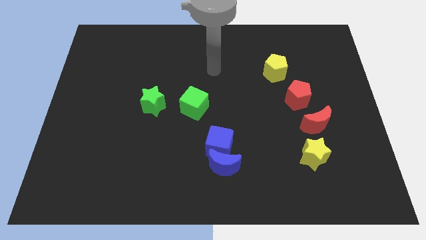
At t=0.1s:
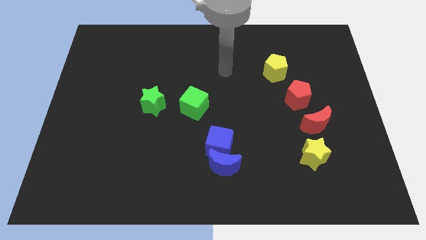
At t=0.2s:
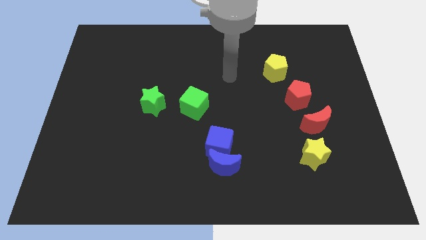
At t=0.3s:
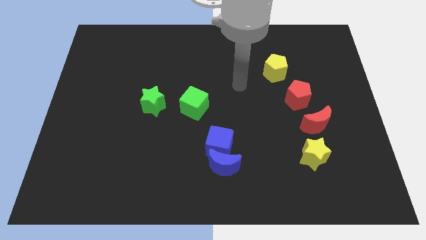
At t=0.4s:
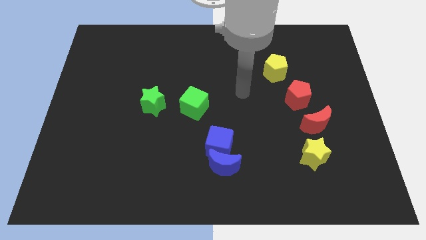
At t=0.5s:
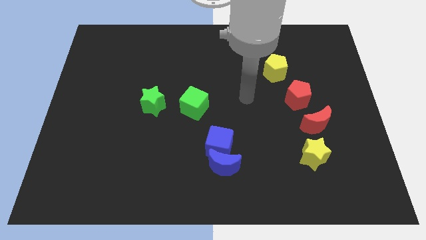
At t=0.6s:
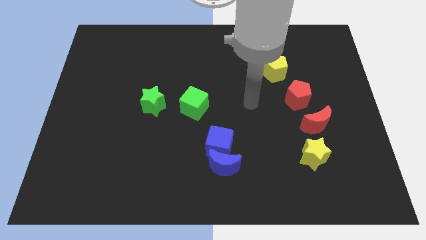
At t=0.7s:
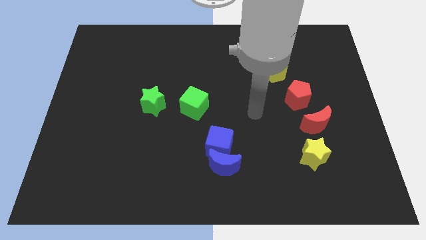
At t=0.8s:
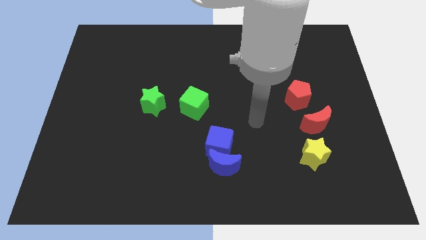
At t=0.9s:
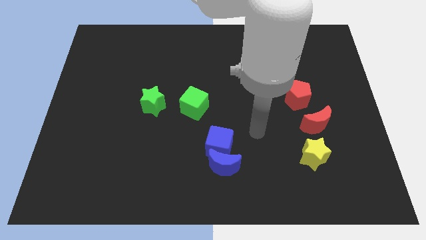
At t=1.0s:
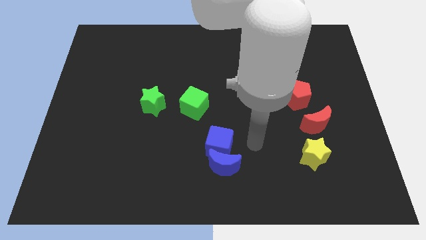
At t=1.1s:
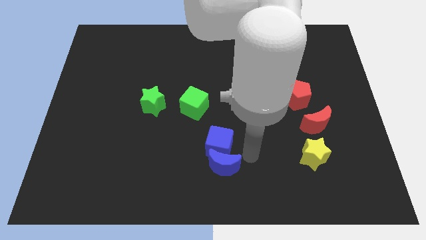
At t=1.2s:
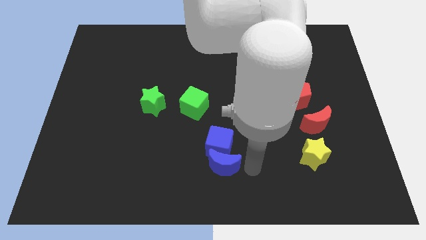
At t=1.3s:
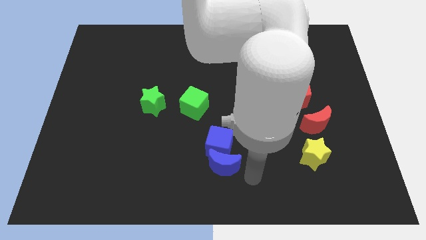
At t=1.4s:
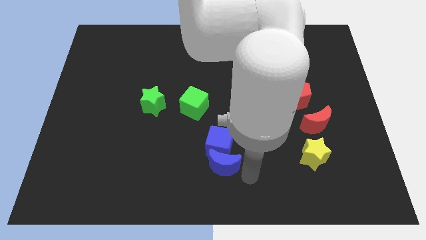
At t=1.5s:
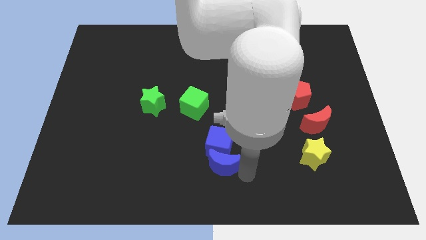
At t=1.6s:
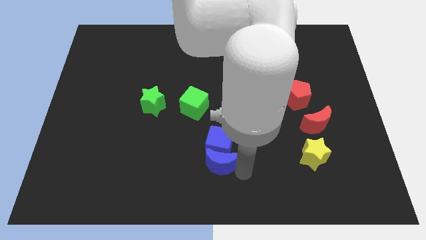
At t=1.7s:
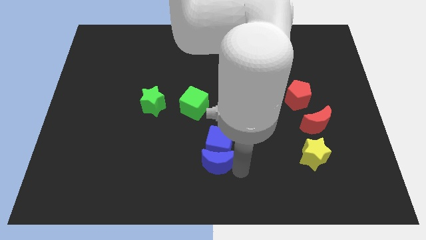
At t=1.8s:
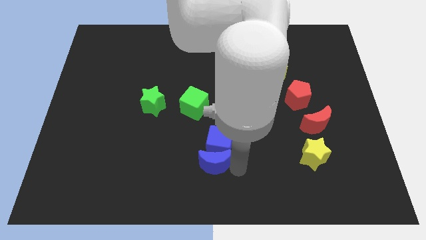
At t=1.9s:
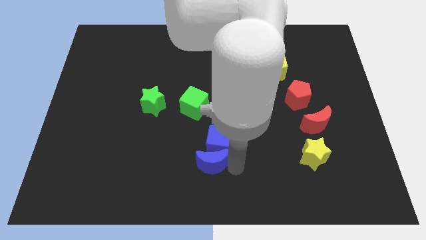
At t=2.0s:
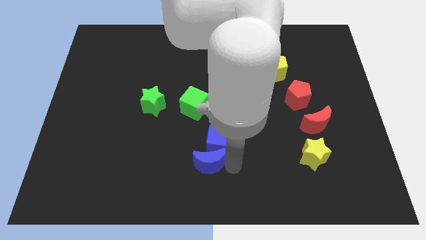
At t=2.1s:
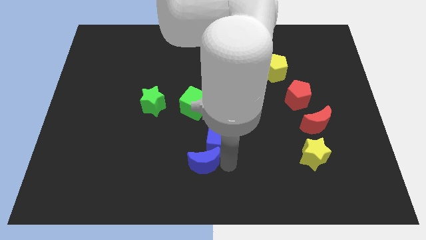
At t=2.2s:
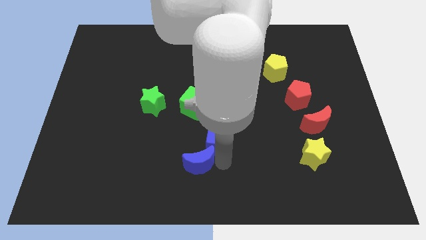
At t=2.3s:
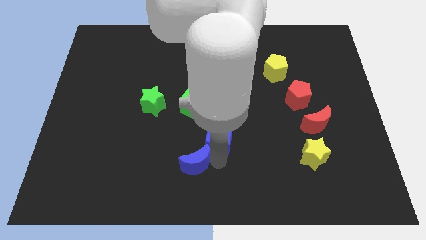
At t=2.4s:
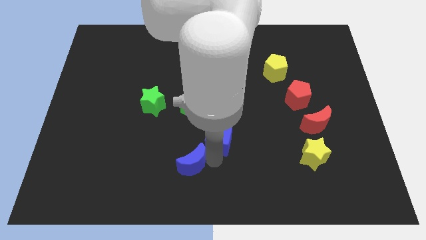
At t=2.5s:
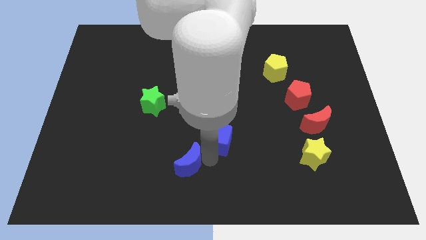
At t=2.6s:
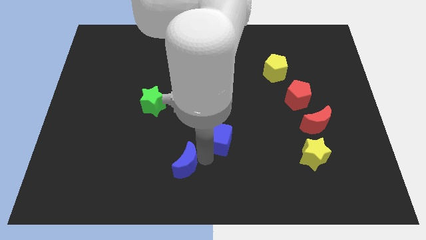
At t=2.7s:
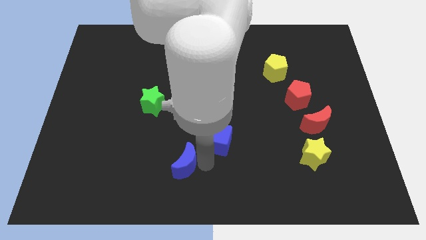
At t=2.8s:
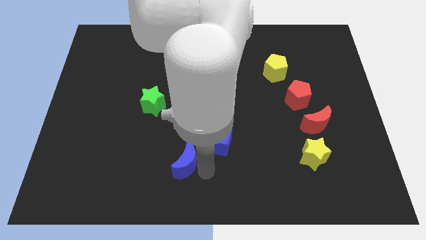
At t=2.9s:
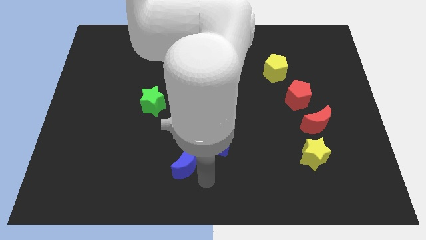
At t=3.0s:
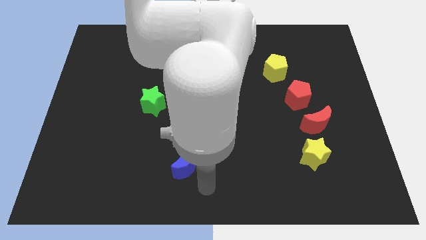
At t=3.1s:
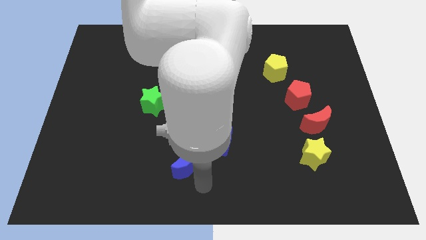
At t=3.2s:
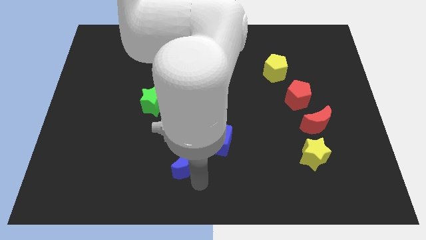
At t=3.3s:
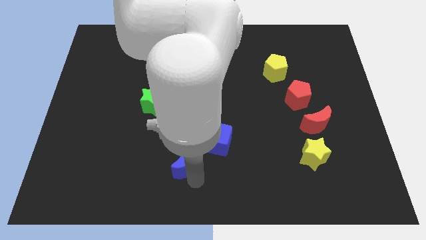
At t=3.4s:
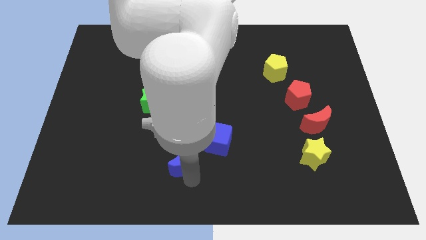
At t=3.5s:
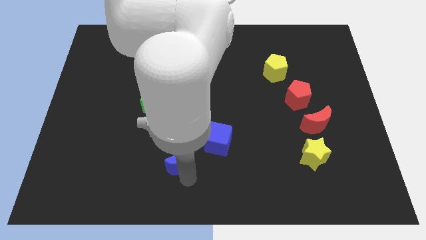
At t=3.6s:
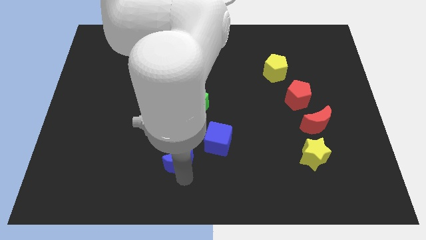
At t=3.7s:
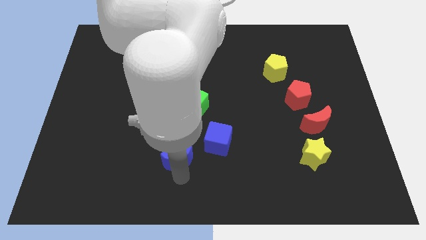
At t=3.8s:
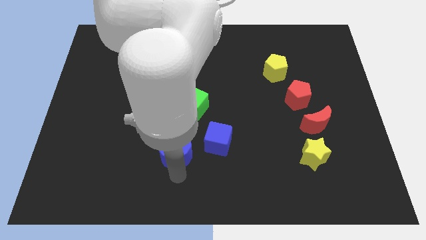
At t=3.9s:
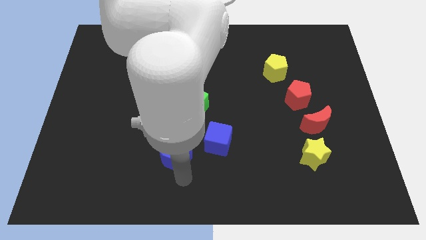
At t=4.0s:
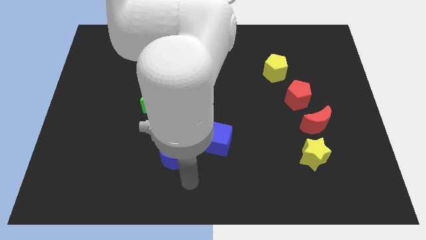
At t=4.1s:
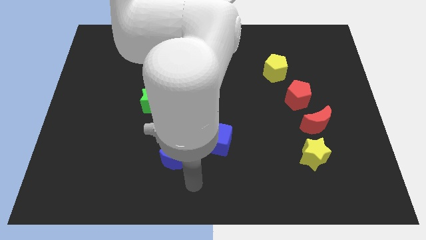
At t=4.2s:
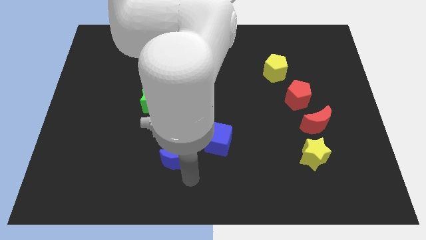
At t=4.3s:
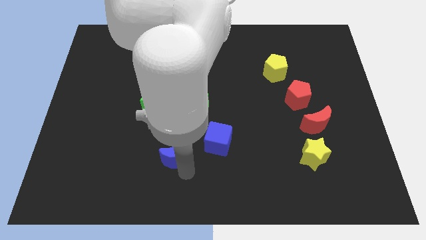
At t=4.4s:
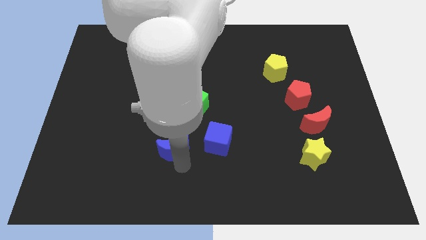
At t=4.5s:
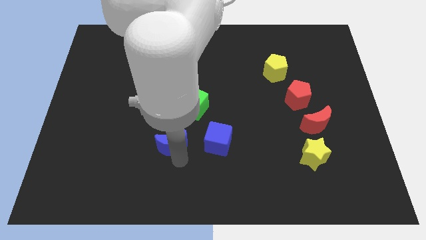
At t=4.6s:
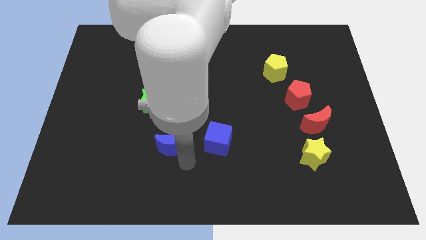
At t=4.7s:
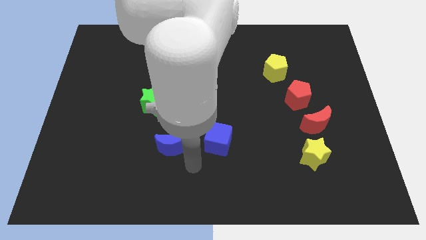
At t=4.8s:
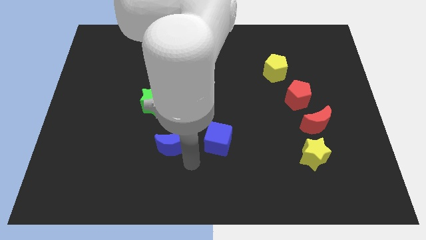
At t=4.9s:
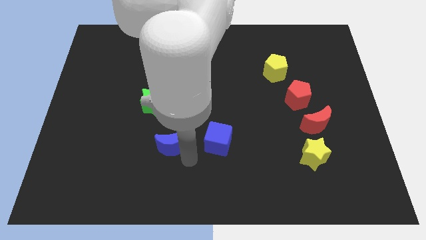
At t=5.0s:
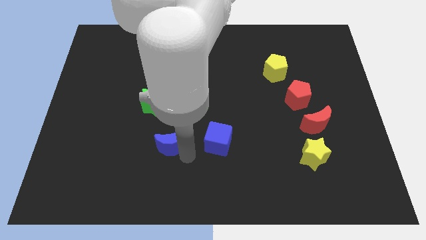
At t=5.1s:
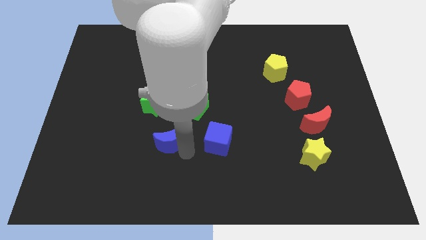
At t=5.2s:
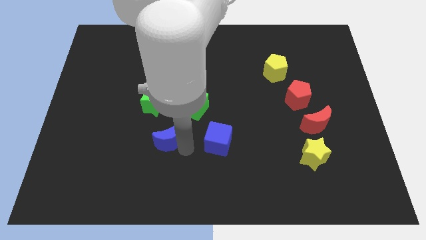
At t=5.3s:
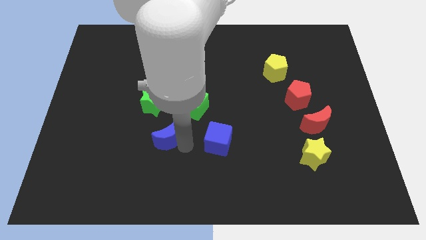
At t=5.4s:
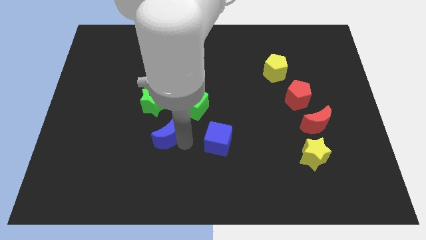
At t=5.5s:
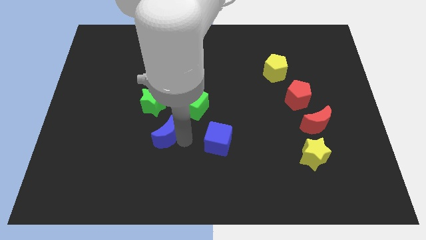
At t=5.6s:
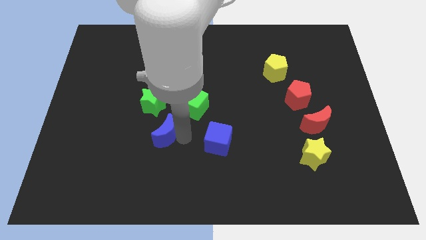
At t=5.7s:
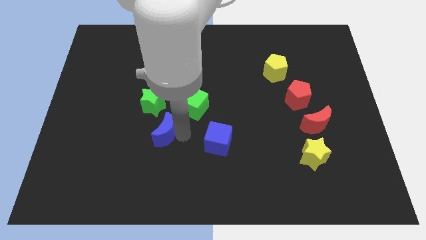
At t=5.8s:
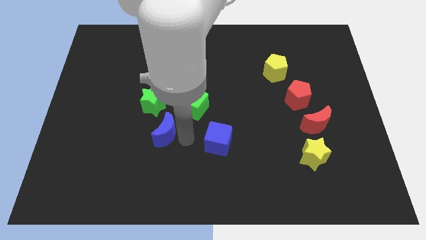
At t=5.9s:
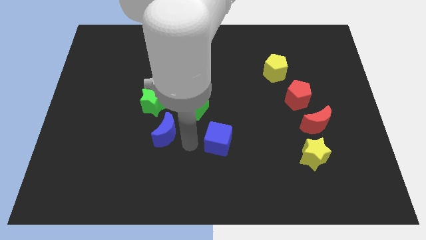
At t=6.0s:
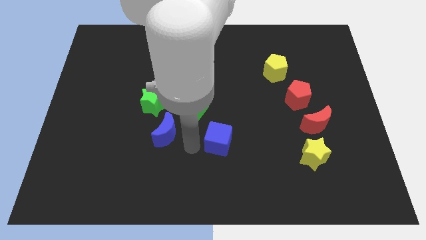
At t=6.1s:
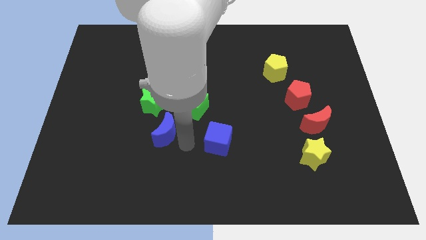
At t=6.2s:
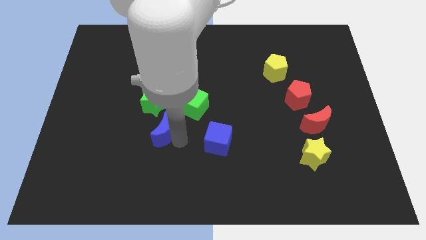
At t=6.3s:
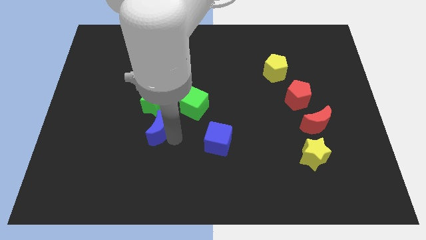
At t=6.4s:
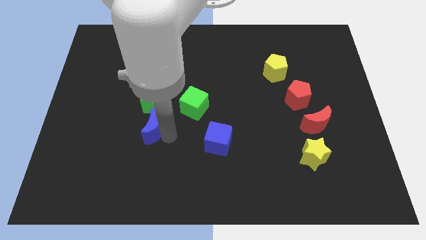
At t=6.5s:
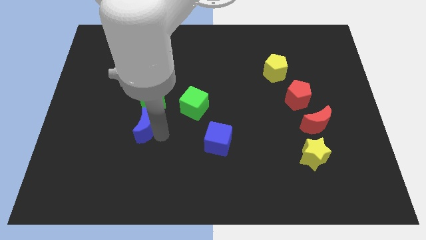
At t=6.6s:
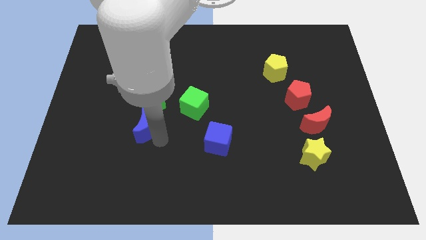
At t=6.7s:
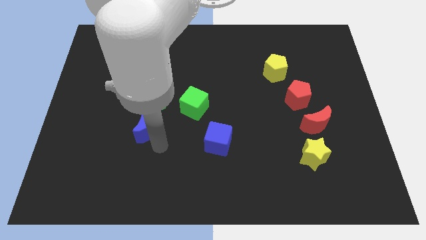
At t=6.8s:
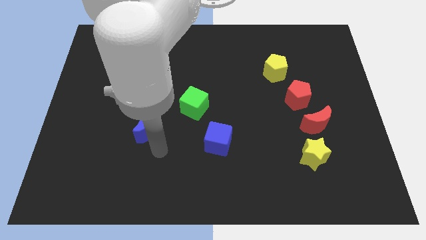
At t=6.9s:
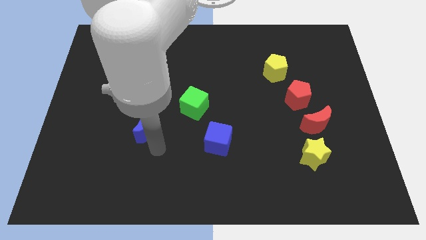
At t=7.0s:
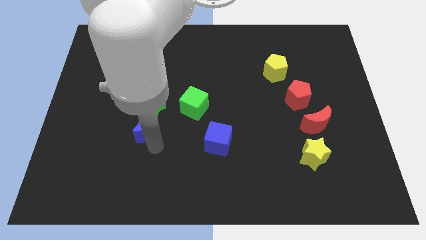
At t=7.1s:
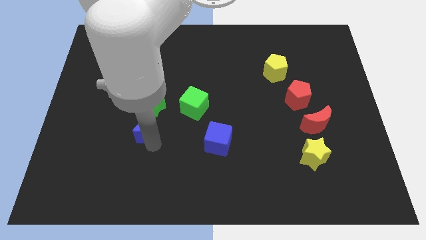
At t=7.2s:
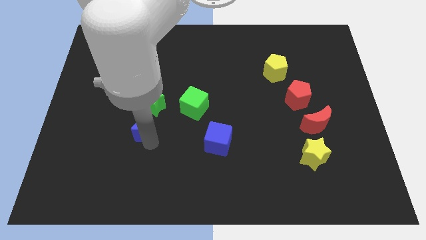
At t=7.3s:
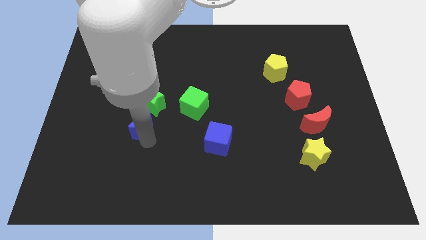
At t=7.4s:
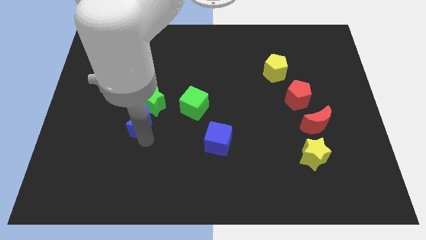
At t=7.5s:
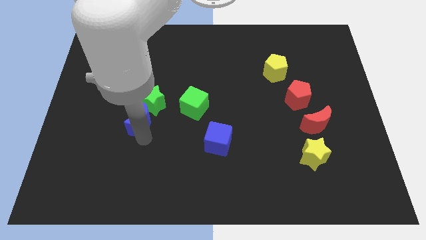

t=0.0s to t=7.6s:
move the blue moon upwards and to the left diagonally

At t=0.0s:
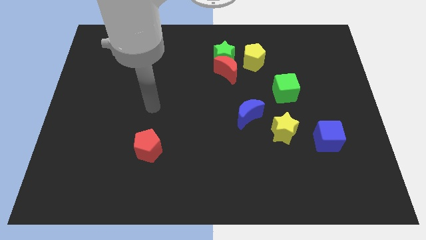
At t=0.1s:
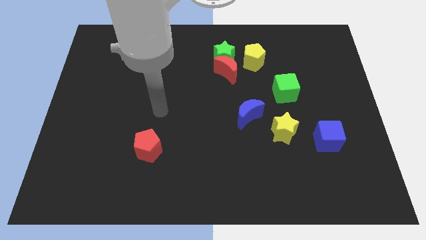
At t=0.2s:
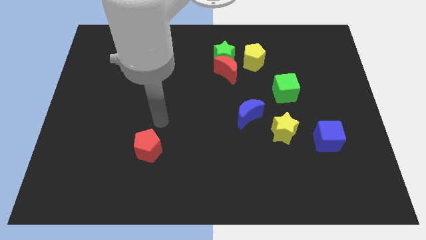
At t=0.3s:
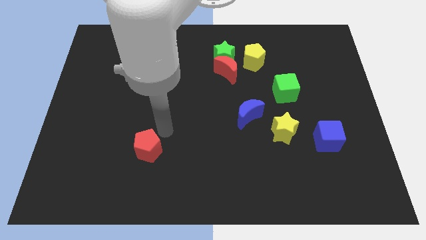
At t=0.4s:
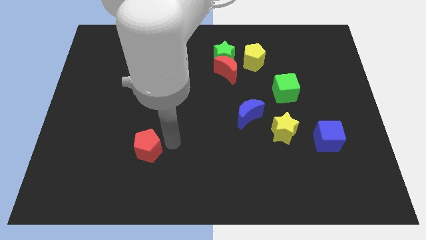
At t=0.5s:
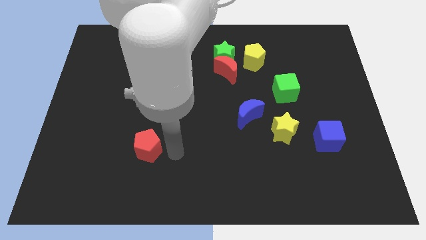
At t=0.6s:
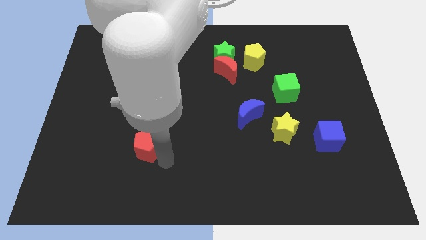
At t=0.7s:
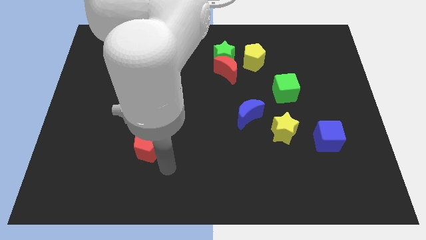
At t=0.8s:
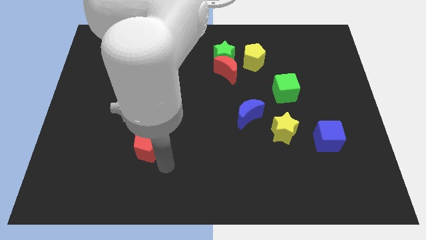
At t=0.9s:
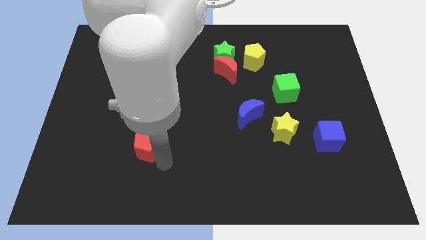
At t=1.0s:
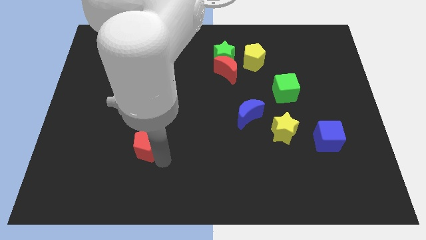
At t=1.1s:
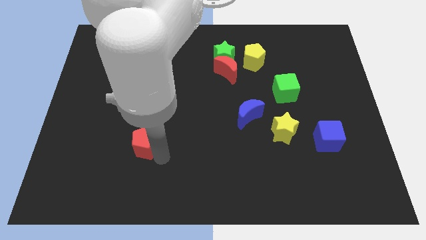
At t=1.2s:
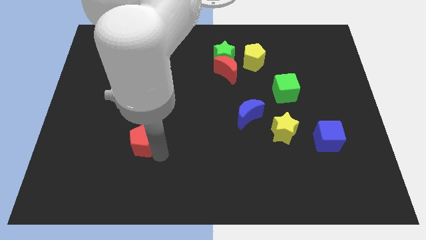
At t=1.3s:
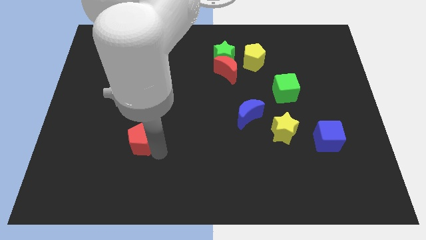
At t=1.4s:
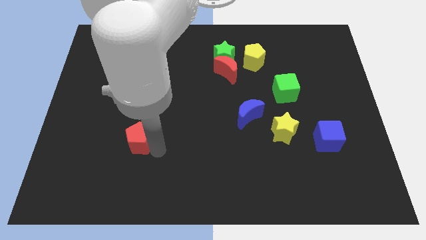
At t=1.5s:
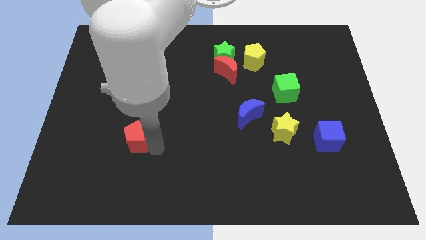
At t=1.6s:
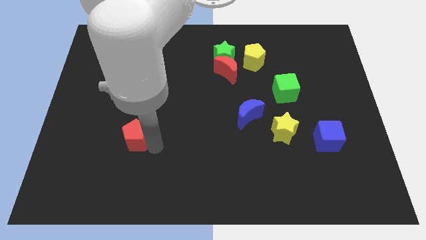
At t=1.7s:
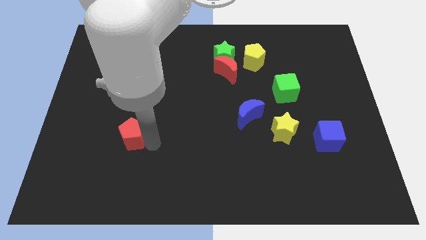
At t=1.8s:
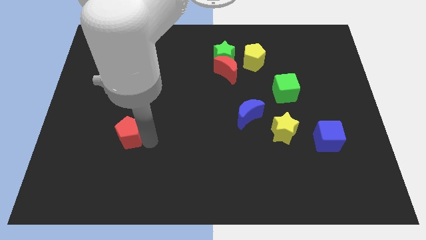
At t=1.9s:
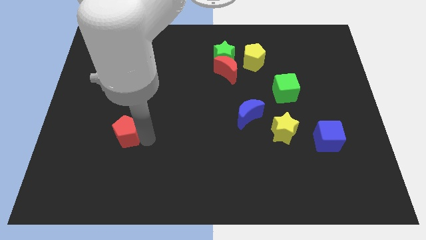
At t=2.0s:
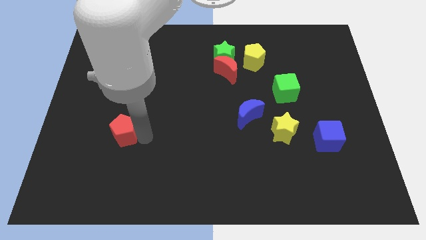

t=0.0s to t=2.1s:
slide the red pentagon upwards and to the left slightly
